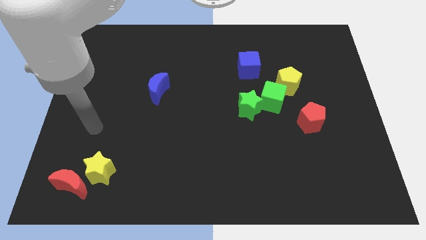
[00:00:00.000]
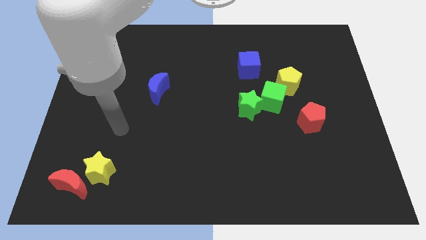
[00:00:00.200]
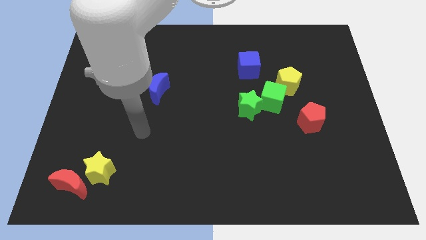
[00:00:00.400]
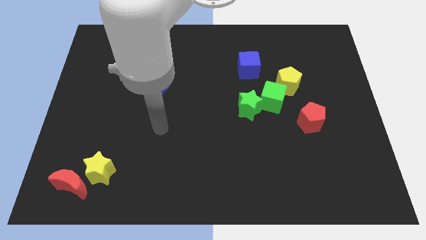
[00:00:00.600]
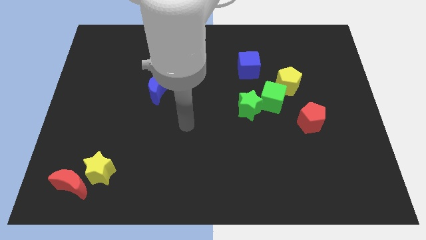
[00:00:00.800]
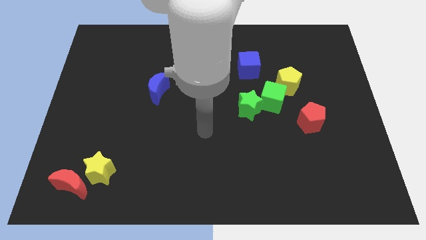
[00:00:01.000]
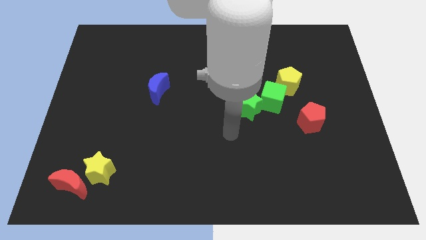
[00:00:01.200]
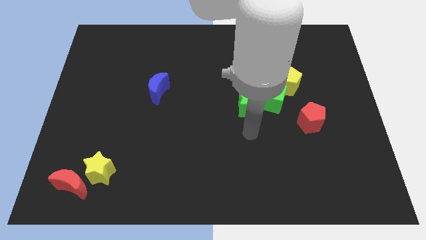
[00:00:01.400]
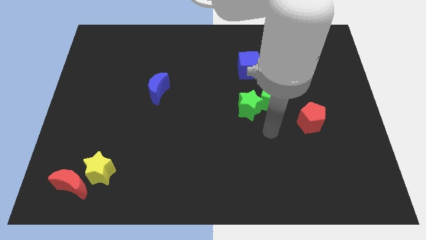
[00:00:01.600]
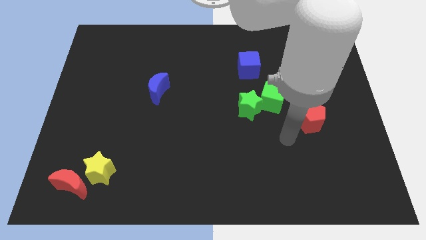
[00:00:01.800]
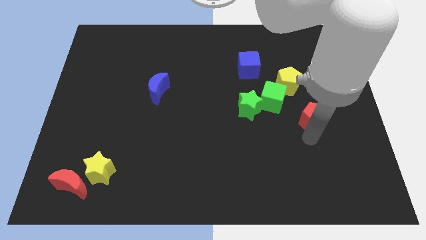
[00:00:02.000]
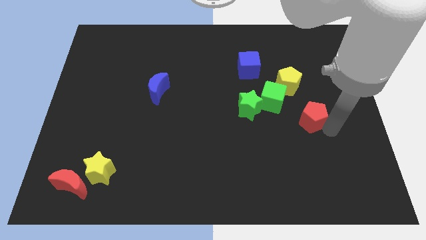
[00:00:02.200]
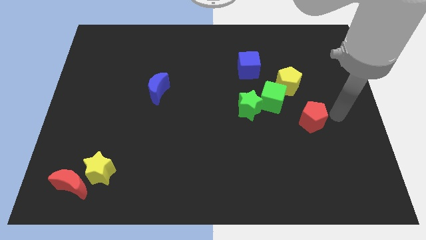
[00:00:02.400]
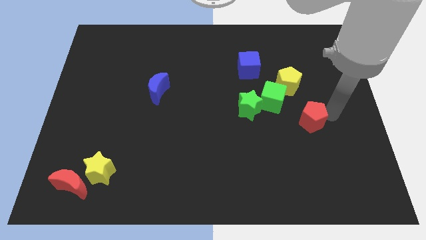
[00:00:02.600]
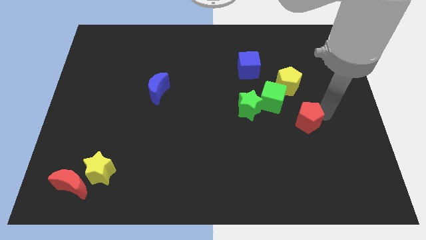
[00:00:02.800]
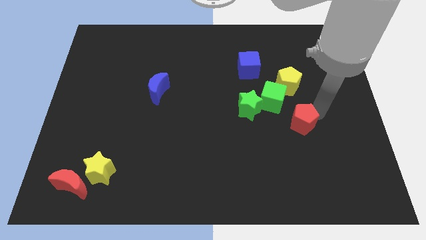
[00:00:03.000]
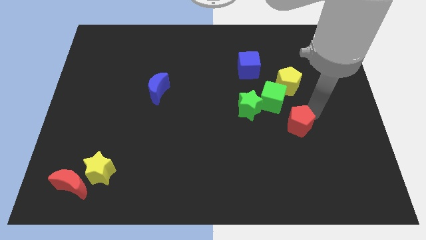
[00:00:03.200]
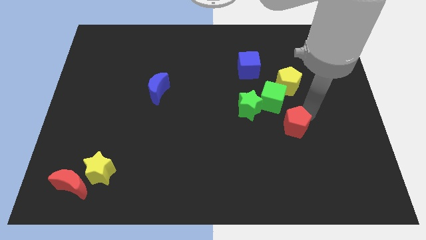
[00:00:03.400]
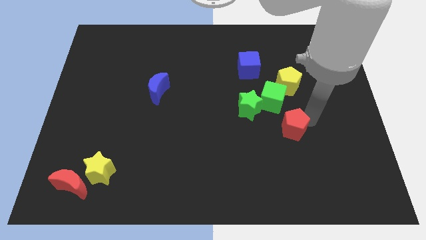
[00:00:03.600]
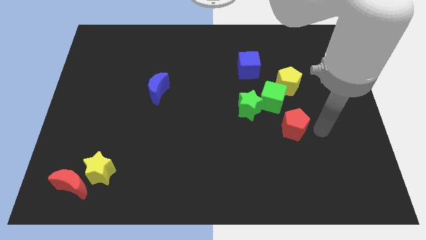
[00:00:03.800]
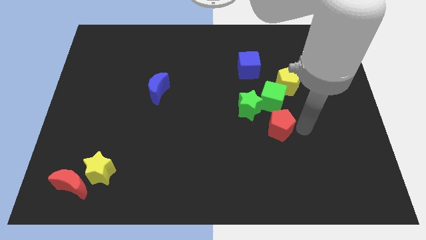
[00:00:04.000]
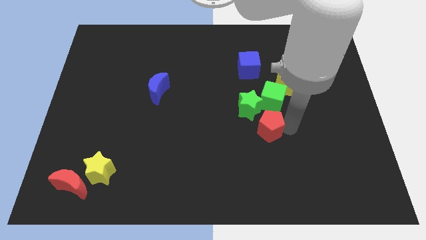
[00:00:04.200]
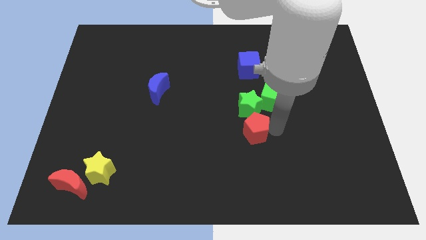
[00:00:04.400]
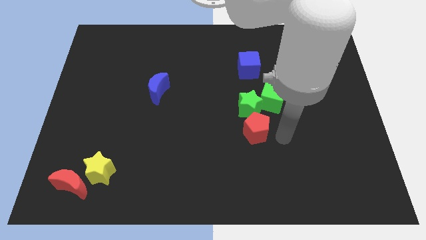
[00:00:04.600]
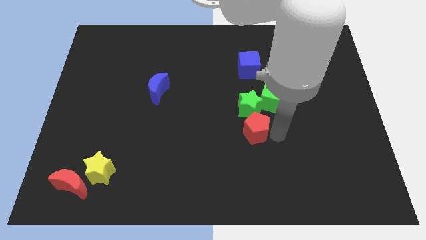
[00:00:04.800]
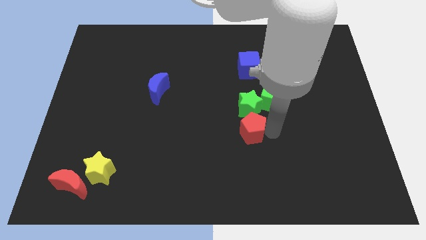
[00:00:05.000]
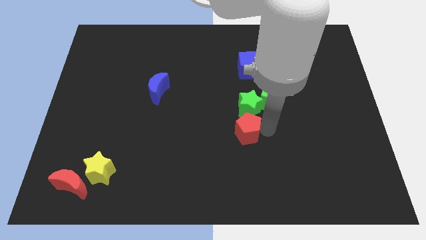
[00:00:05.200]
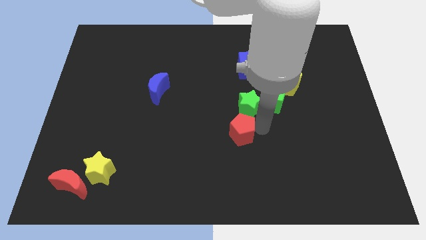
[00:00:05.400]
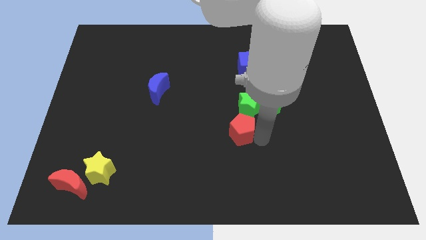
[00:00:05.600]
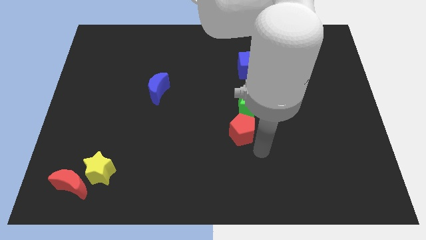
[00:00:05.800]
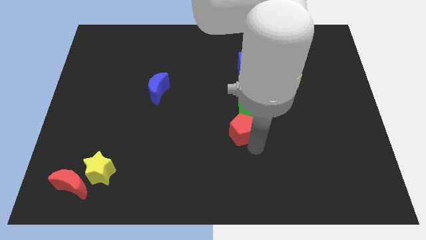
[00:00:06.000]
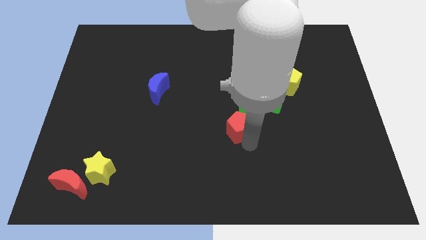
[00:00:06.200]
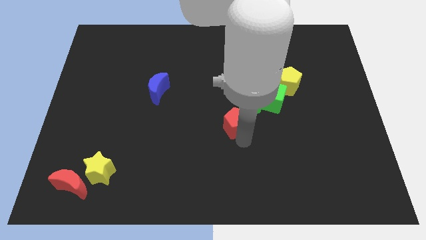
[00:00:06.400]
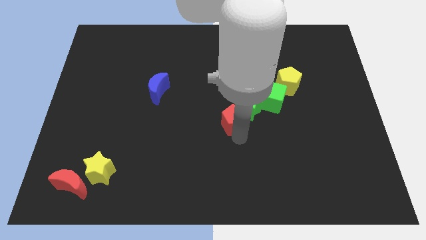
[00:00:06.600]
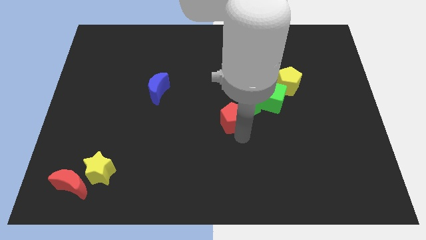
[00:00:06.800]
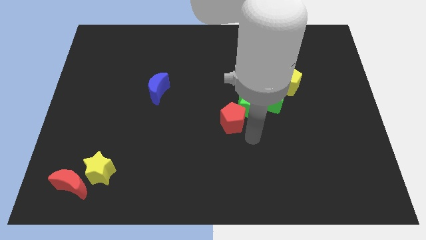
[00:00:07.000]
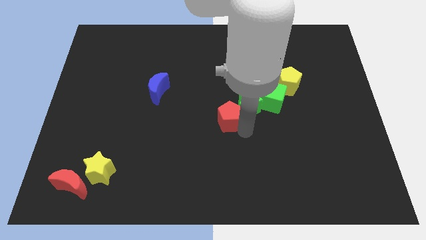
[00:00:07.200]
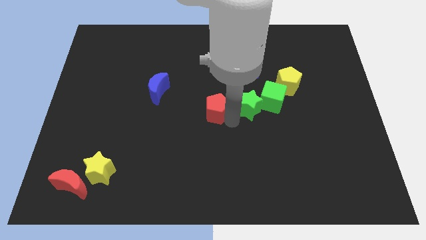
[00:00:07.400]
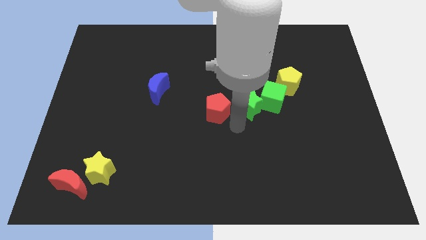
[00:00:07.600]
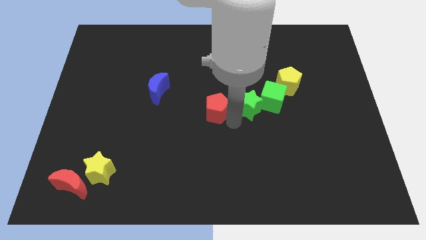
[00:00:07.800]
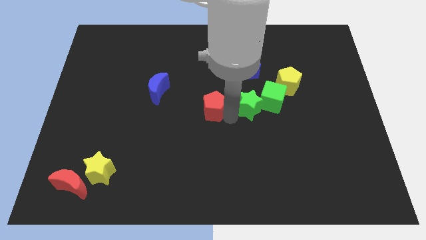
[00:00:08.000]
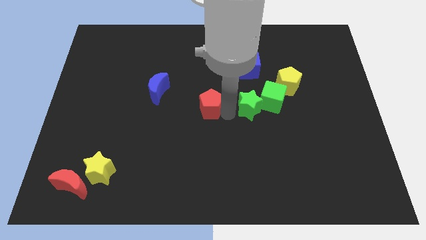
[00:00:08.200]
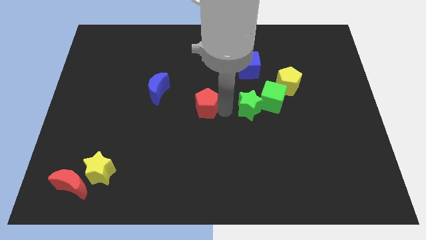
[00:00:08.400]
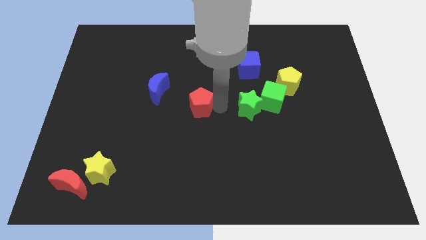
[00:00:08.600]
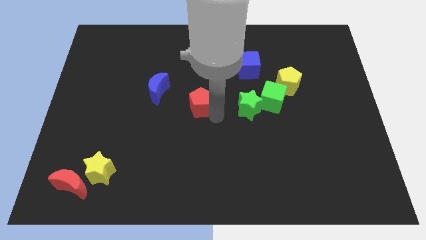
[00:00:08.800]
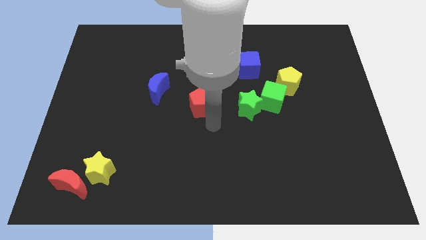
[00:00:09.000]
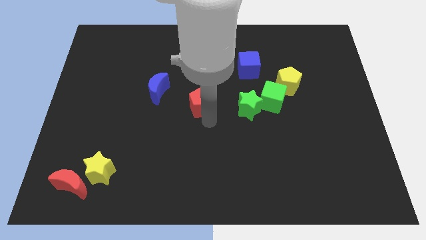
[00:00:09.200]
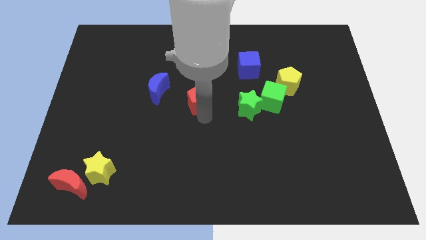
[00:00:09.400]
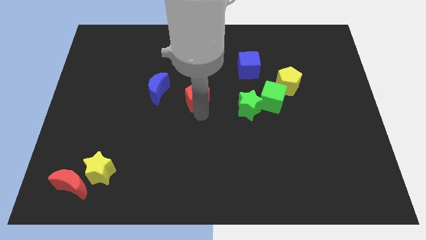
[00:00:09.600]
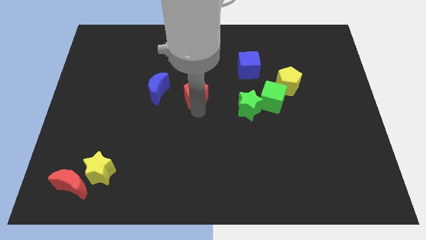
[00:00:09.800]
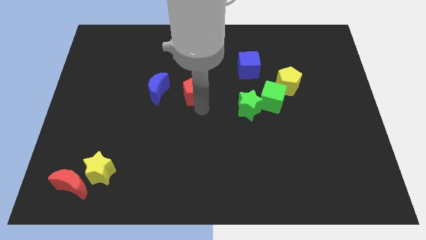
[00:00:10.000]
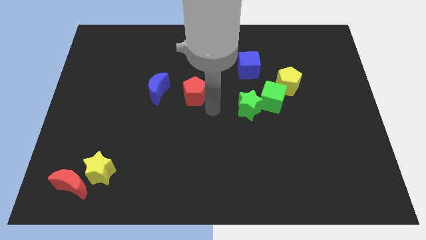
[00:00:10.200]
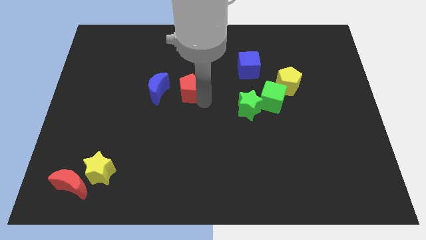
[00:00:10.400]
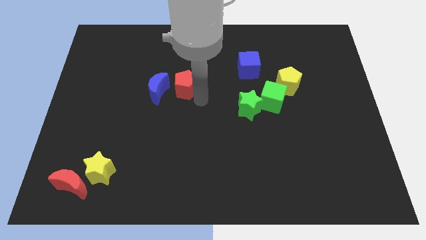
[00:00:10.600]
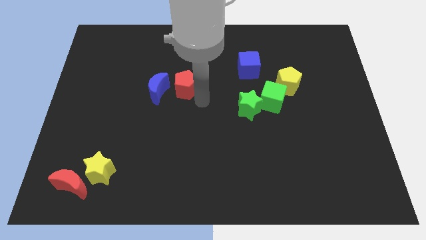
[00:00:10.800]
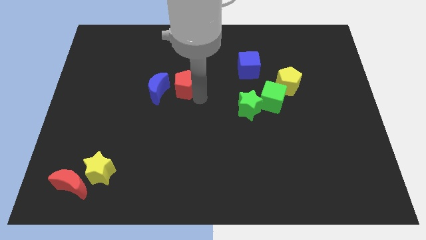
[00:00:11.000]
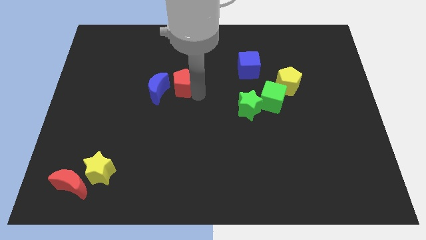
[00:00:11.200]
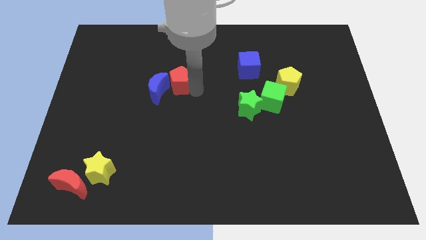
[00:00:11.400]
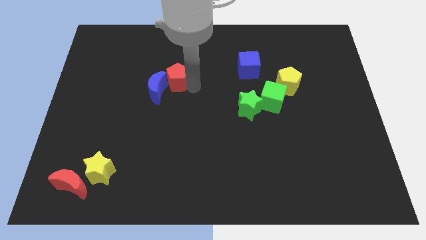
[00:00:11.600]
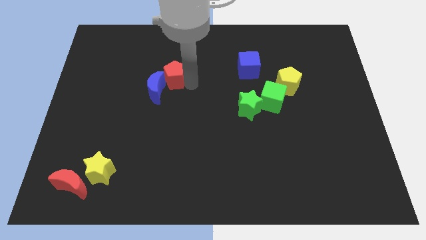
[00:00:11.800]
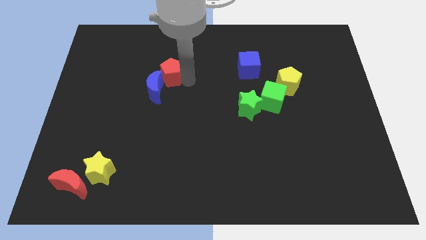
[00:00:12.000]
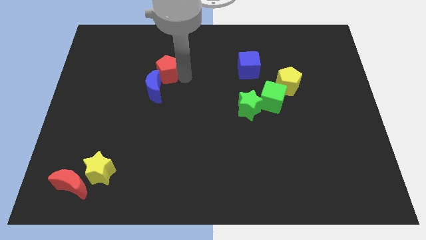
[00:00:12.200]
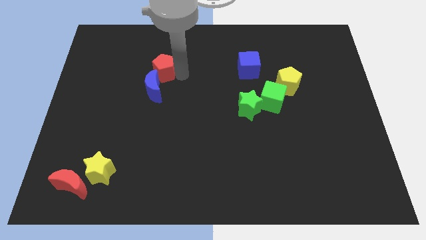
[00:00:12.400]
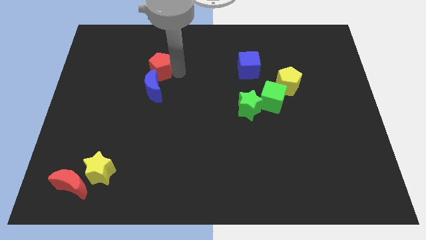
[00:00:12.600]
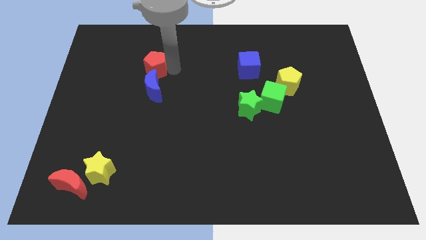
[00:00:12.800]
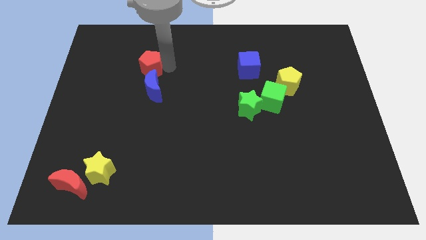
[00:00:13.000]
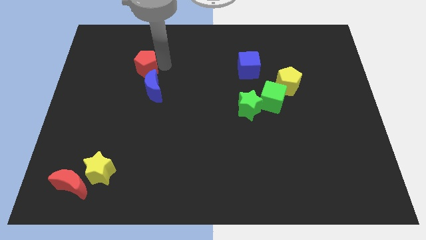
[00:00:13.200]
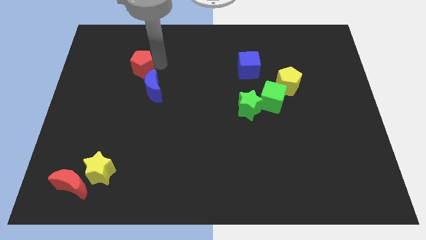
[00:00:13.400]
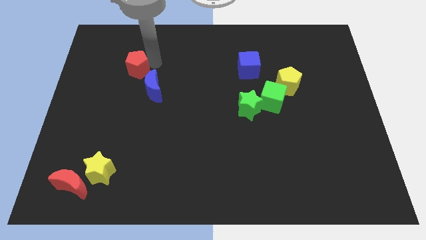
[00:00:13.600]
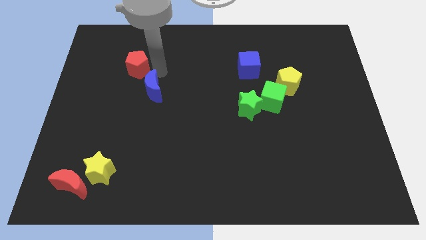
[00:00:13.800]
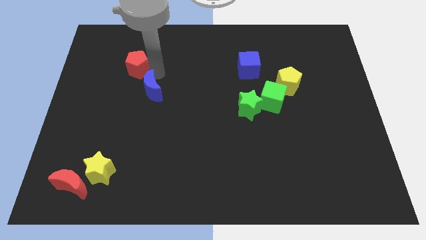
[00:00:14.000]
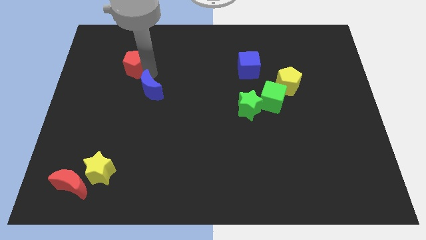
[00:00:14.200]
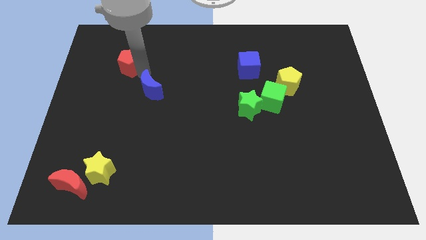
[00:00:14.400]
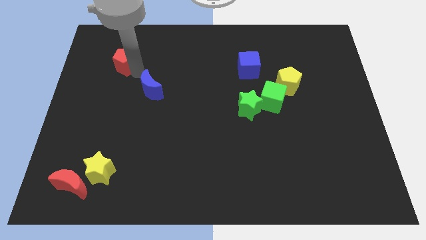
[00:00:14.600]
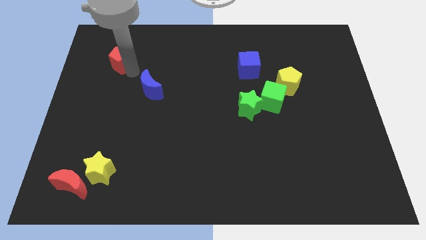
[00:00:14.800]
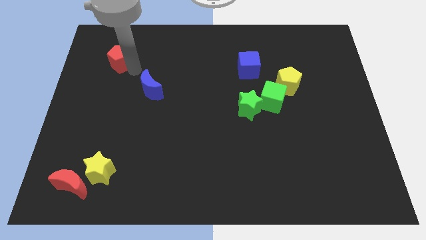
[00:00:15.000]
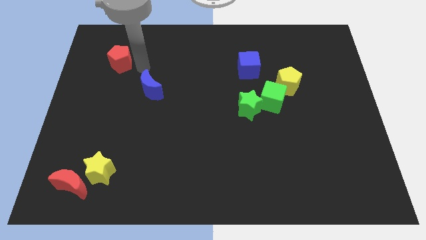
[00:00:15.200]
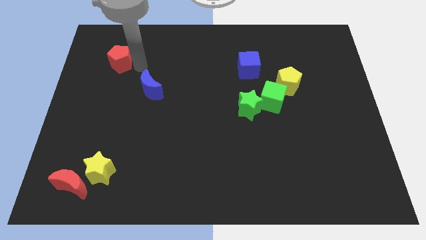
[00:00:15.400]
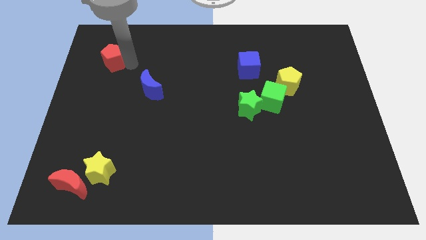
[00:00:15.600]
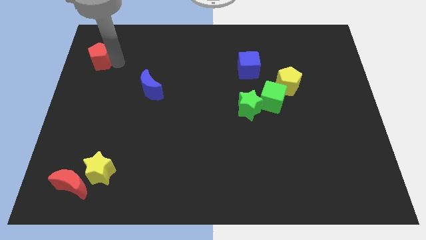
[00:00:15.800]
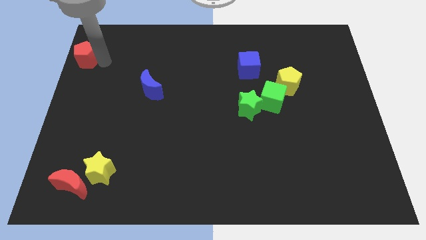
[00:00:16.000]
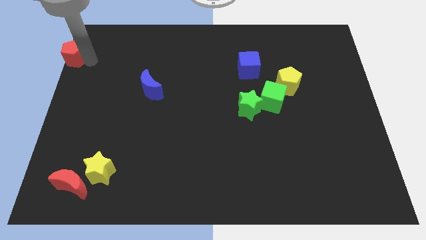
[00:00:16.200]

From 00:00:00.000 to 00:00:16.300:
move the red pentagon to the upper left corner
